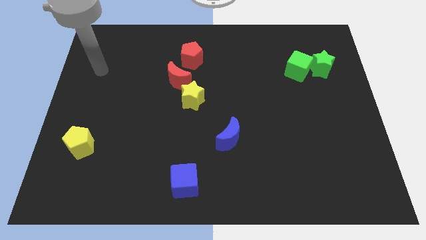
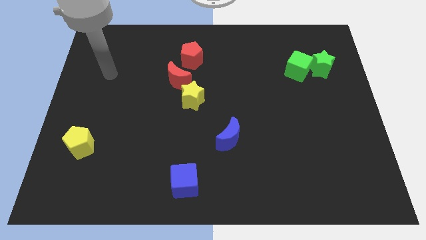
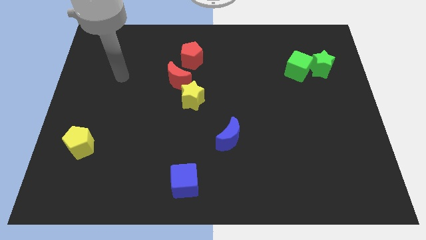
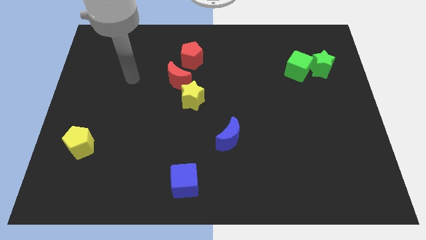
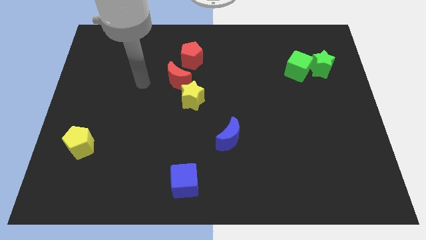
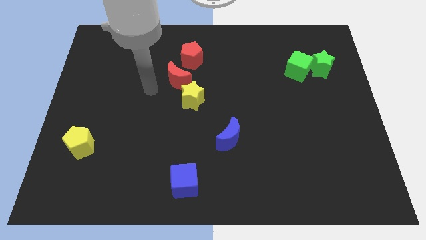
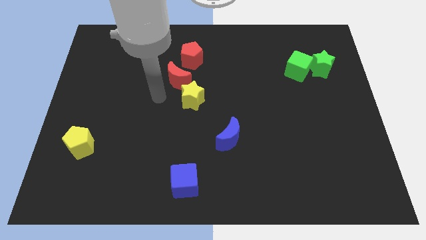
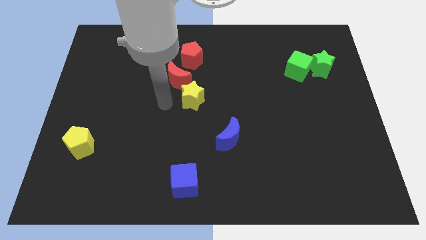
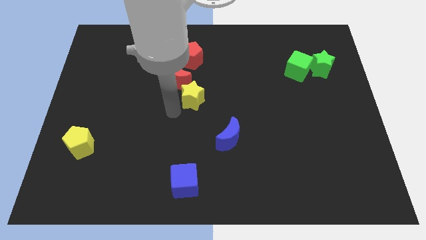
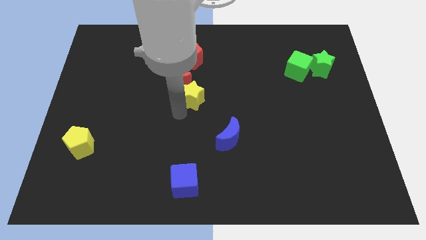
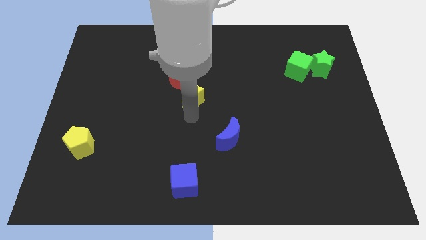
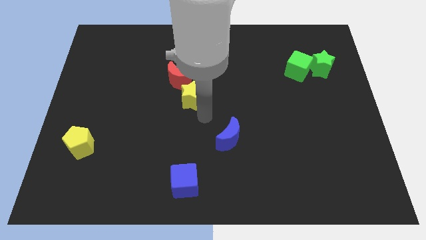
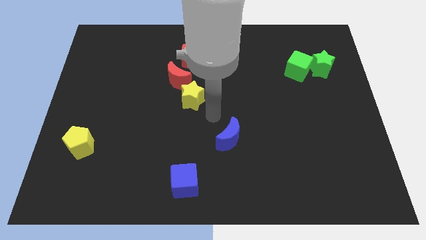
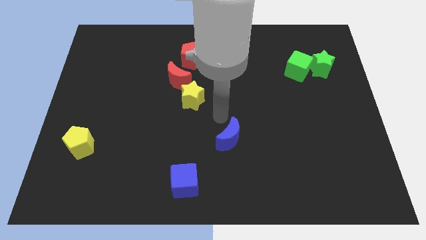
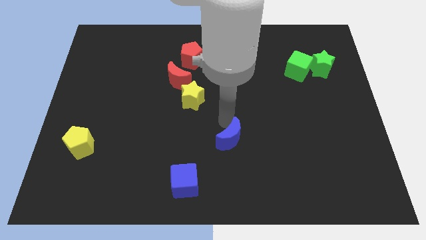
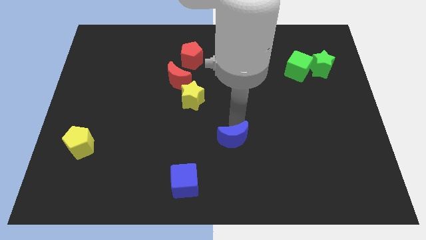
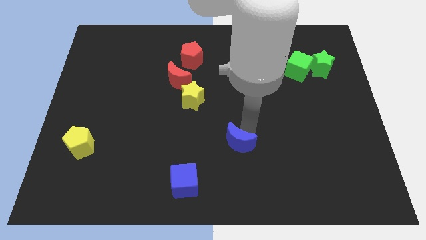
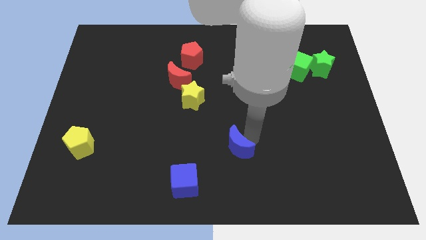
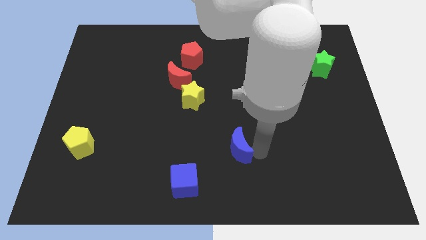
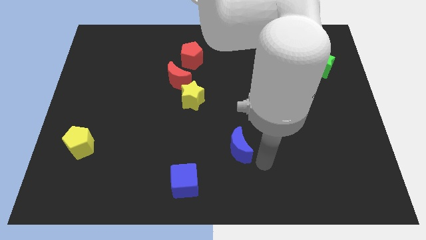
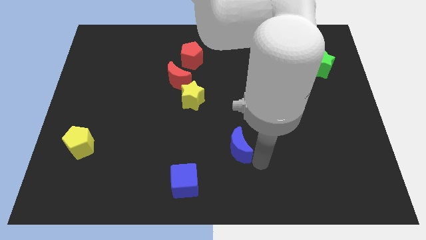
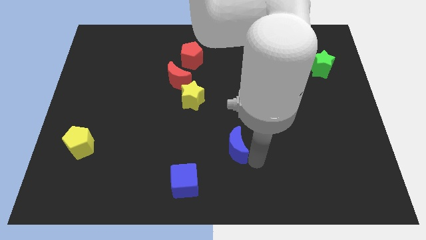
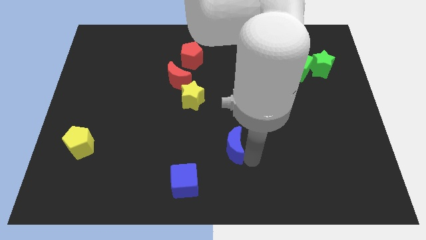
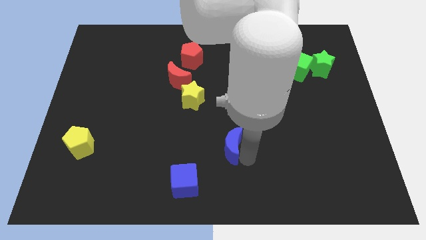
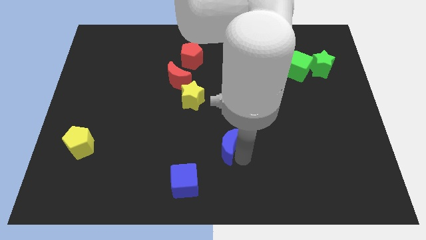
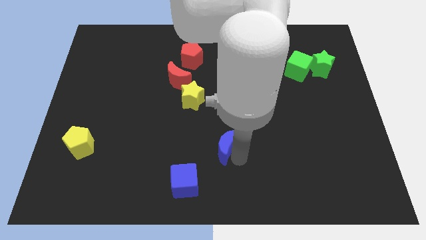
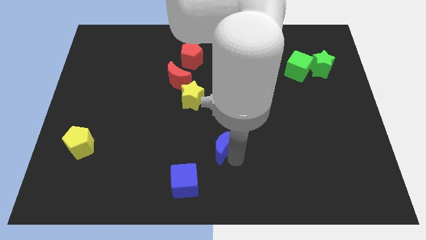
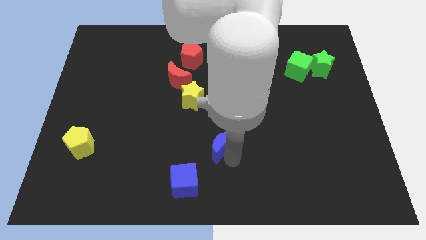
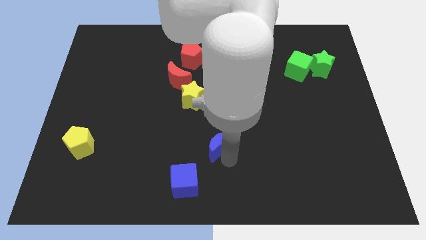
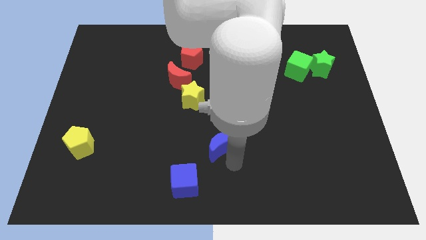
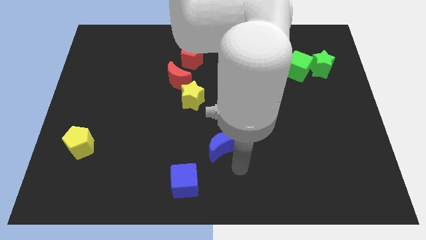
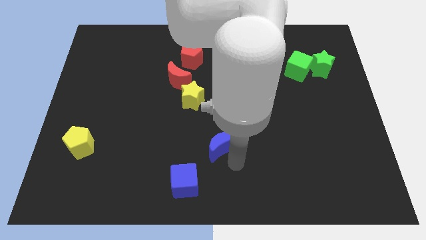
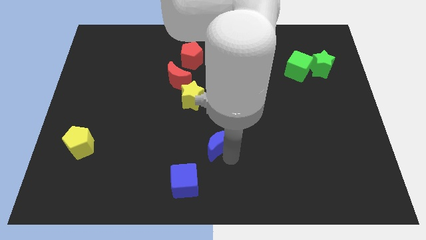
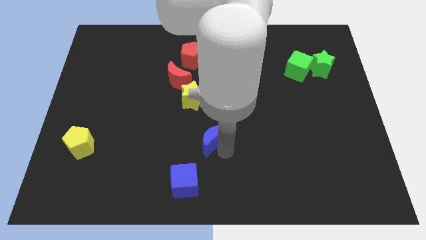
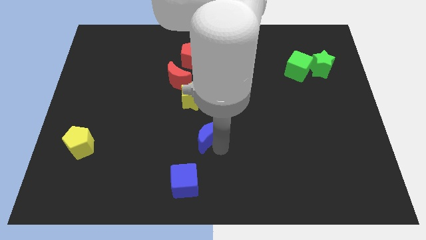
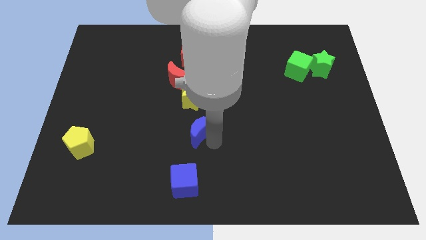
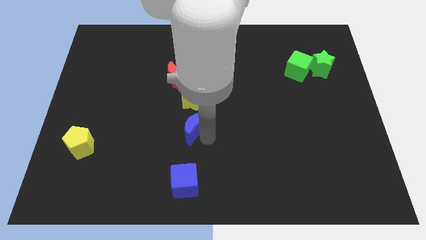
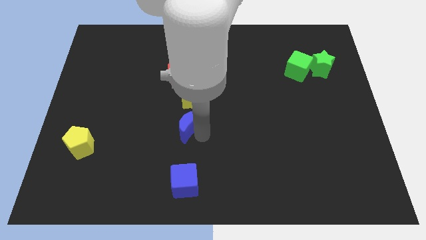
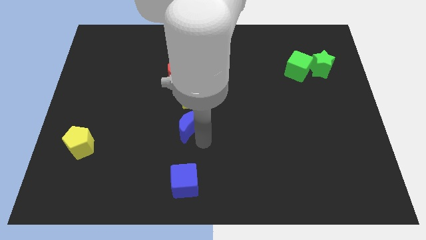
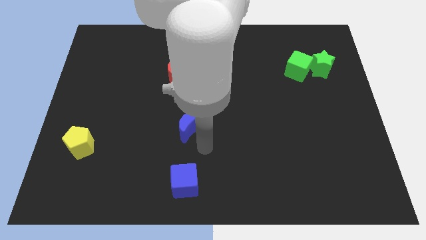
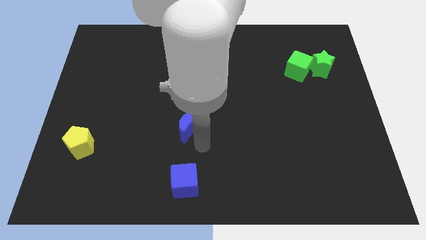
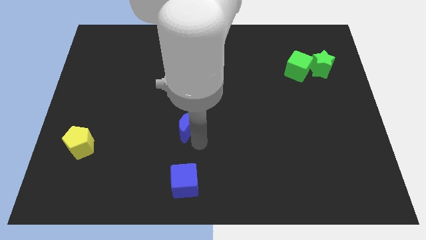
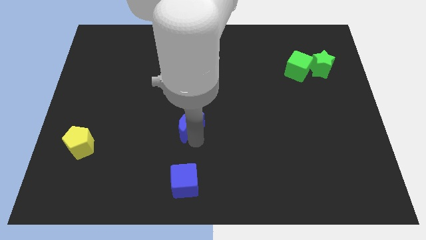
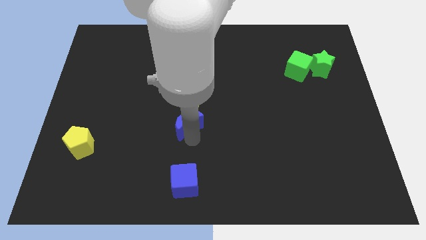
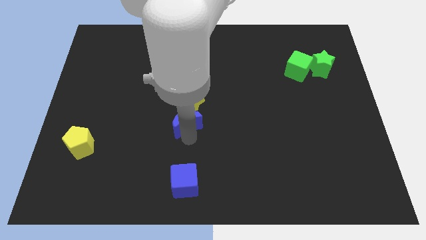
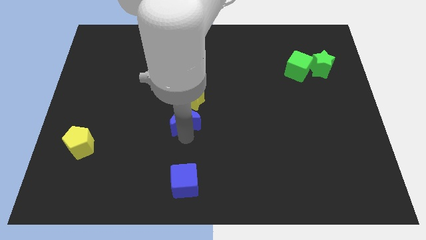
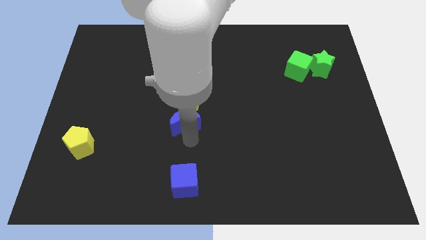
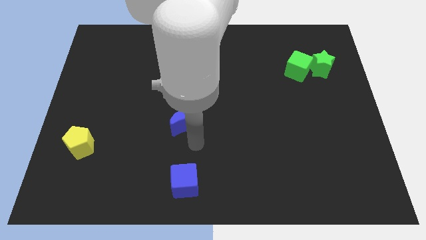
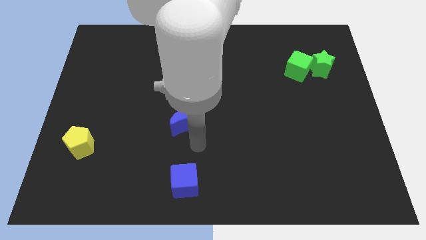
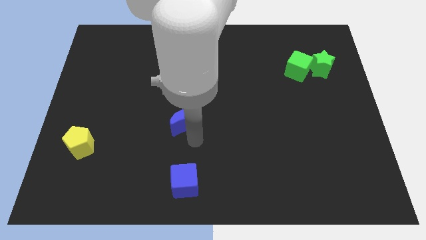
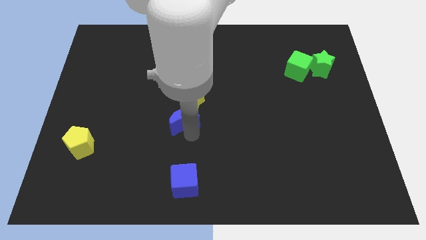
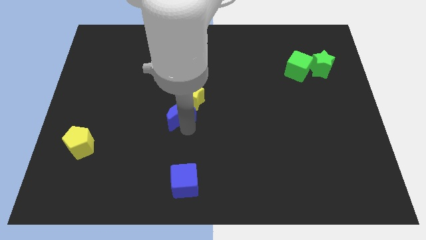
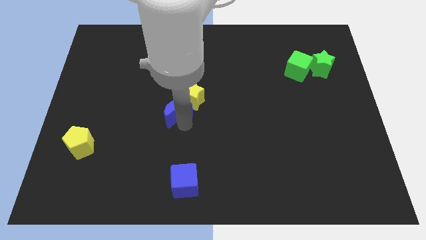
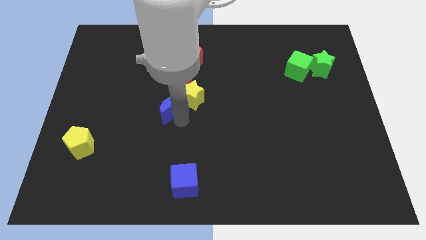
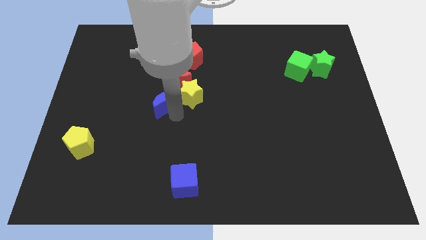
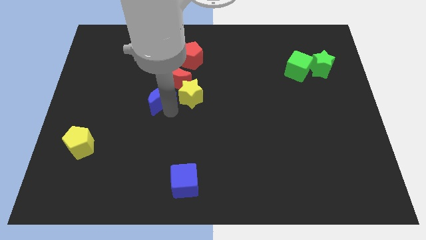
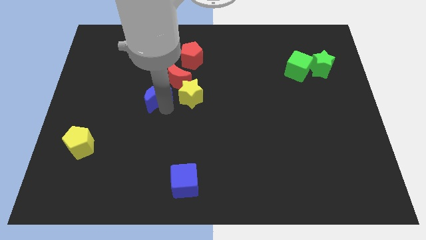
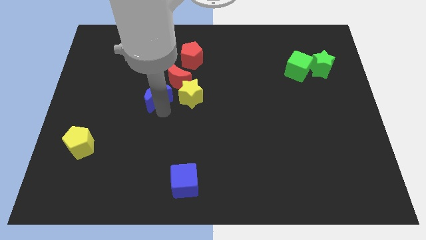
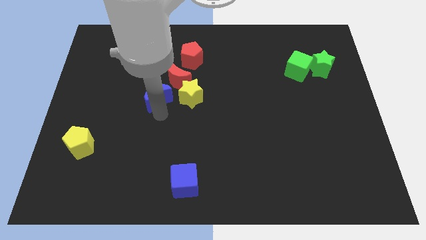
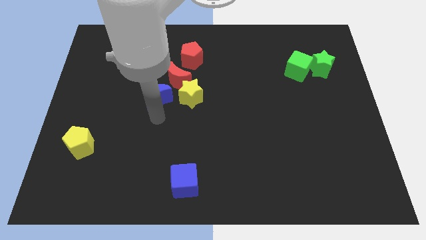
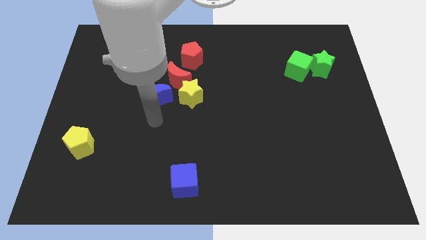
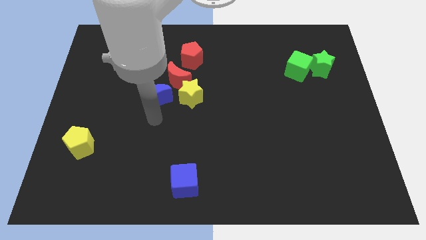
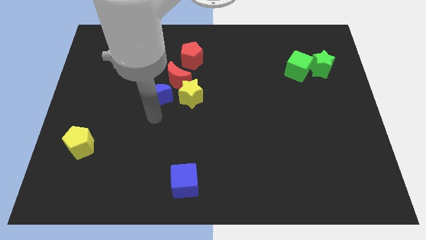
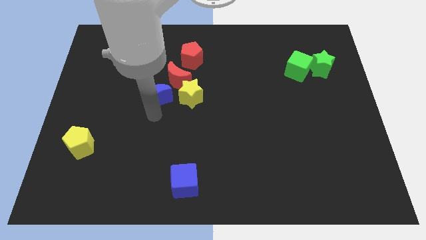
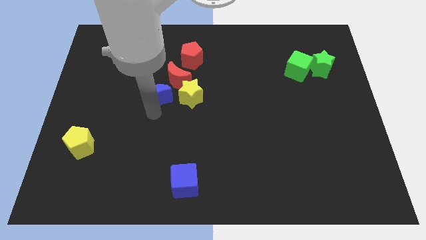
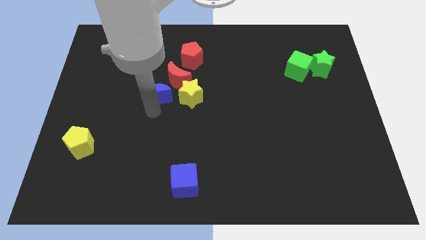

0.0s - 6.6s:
move the blue moon diagonally up and to the left

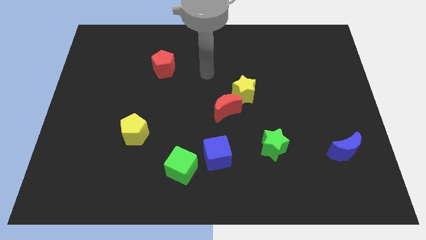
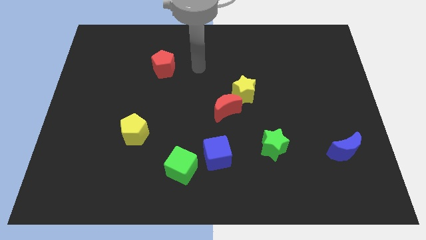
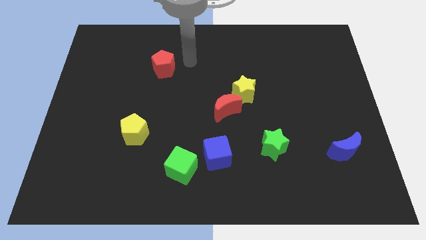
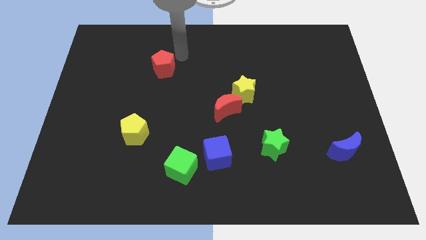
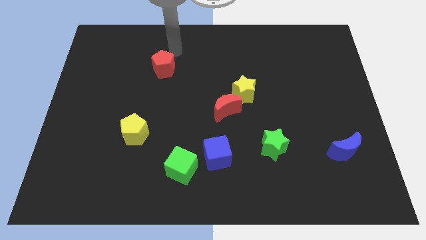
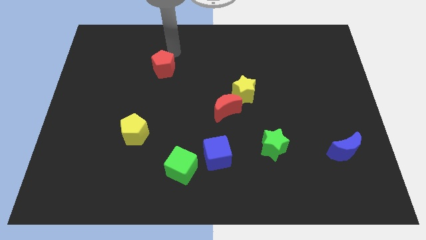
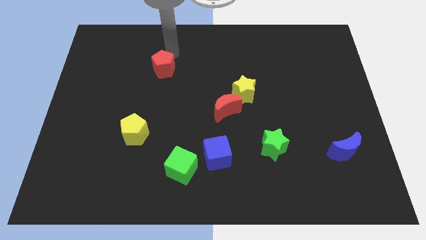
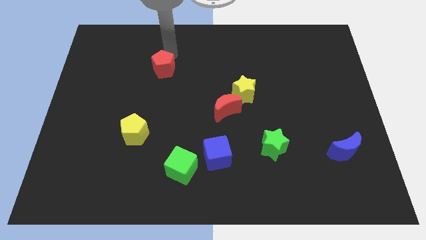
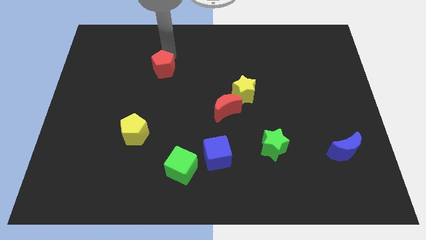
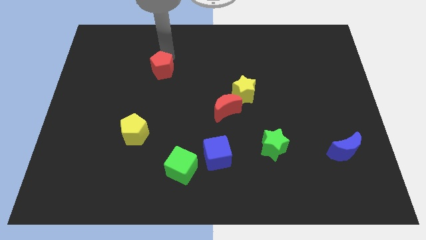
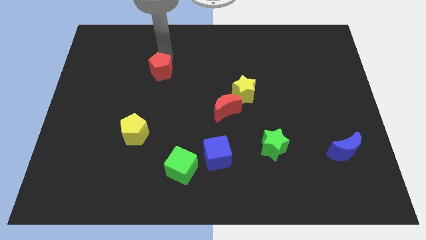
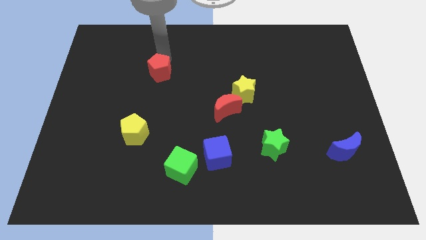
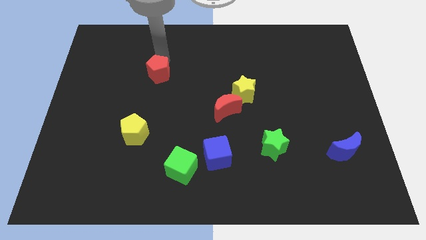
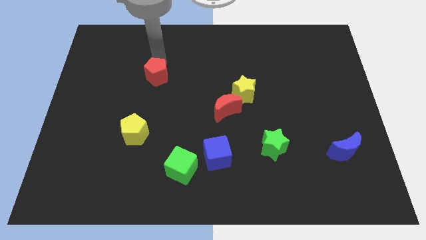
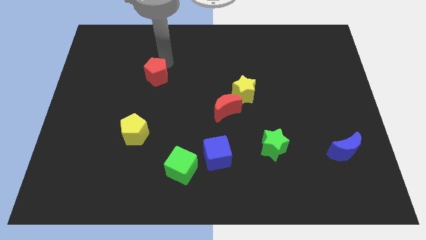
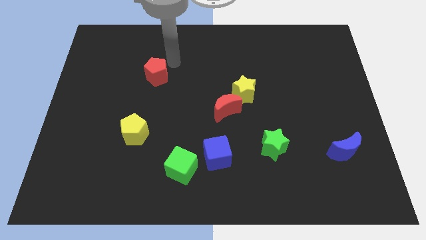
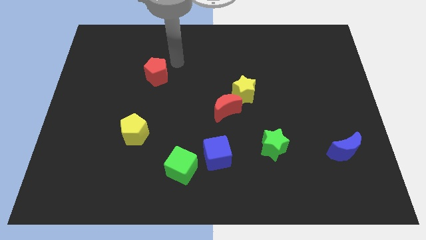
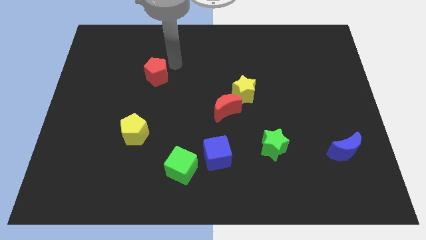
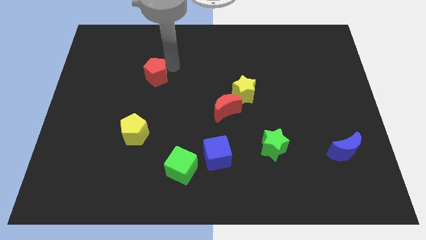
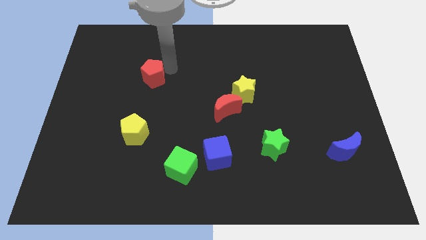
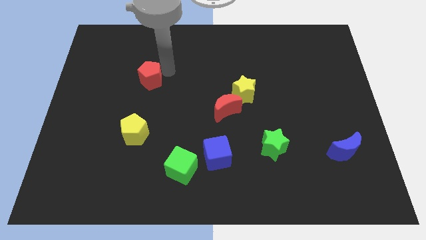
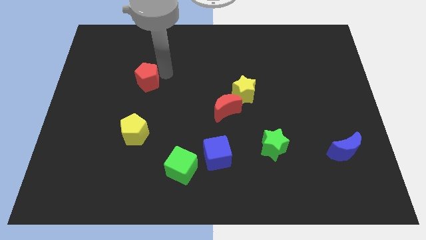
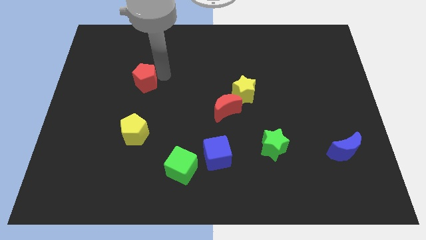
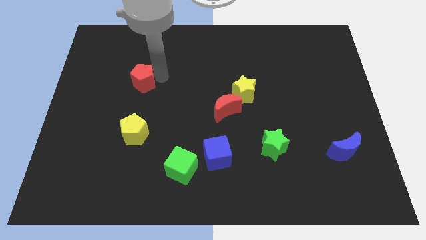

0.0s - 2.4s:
slide the red pentagon somewhat downwards and to the left
